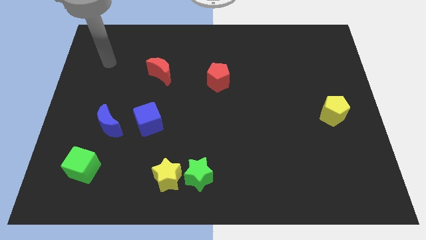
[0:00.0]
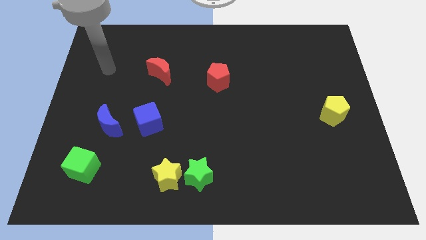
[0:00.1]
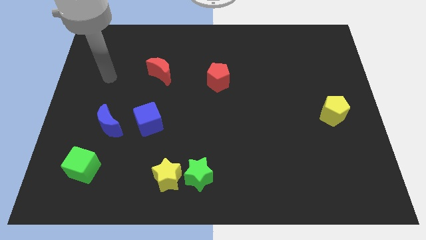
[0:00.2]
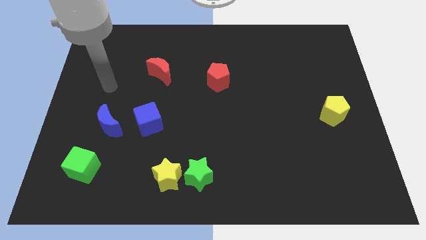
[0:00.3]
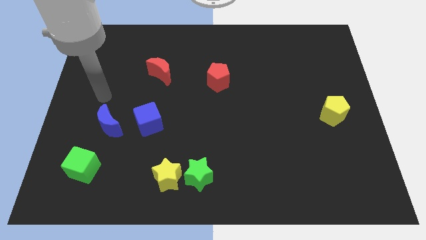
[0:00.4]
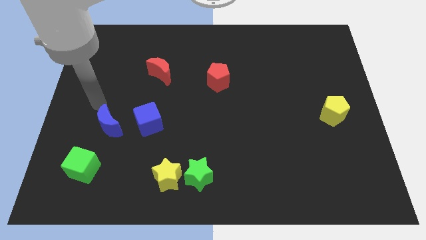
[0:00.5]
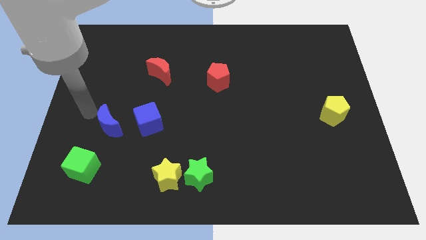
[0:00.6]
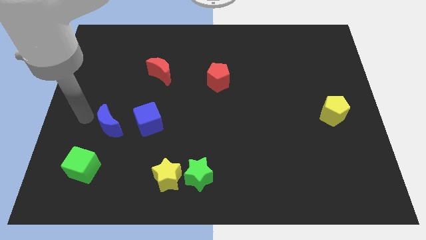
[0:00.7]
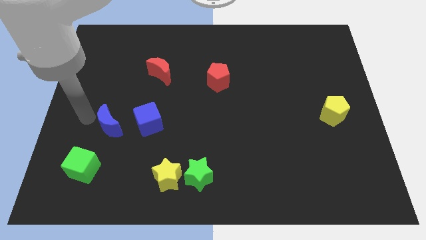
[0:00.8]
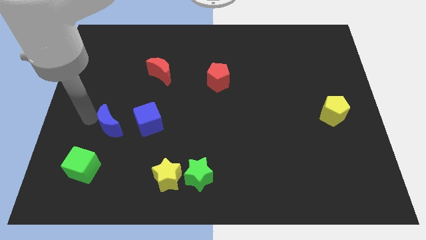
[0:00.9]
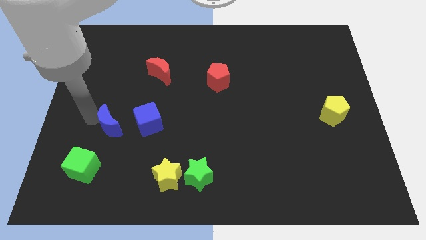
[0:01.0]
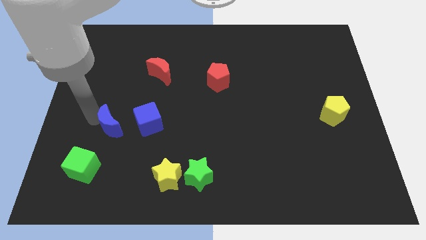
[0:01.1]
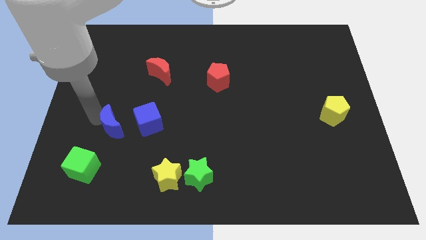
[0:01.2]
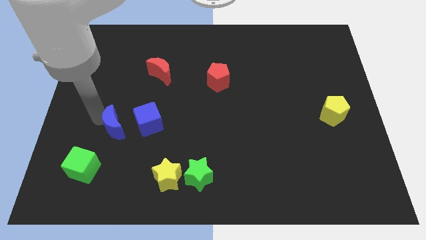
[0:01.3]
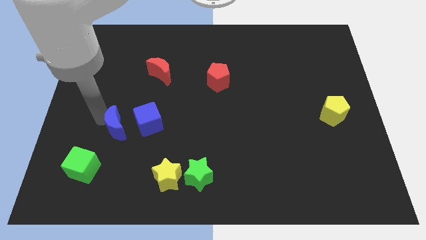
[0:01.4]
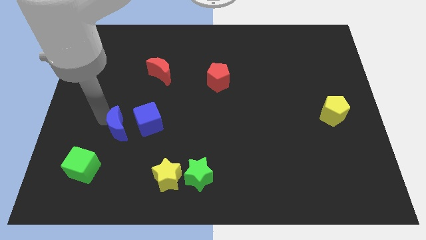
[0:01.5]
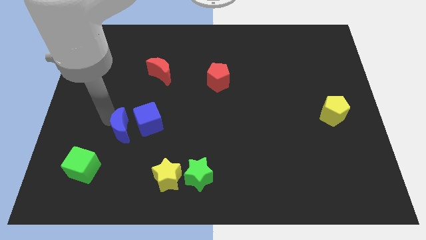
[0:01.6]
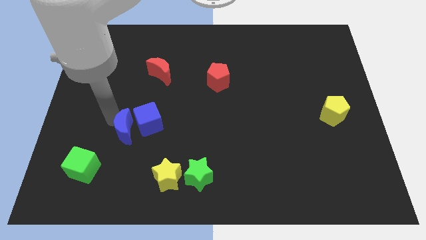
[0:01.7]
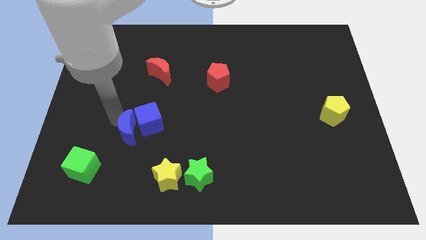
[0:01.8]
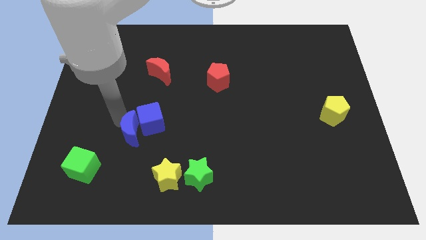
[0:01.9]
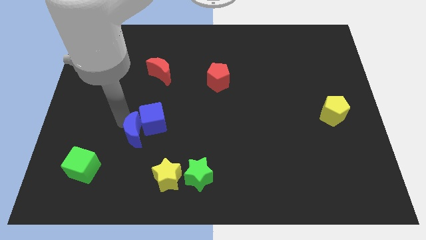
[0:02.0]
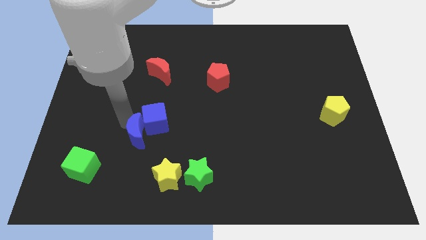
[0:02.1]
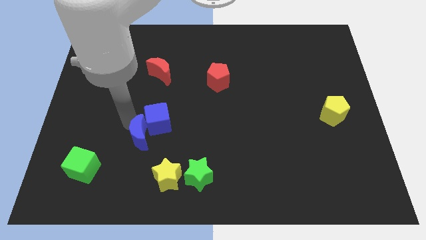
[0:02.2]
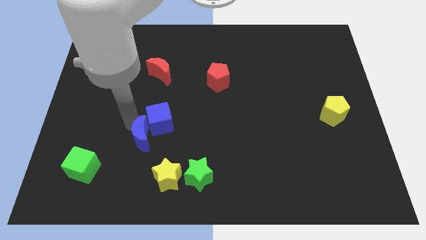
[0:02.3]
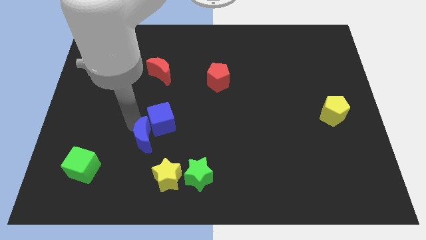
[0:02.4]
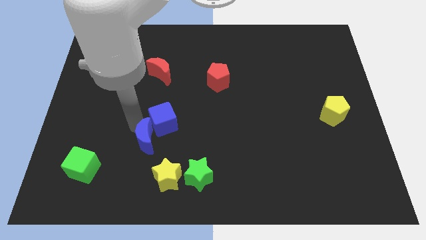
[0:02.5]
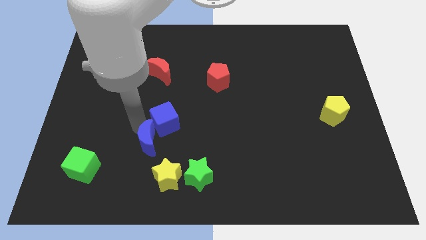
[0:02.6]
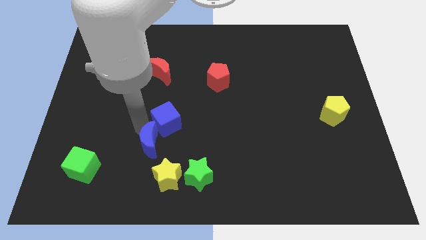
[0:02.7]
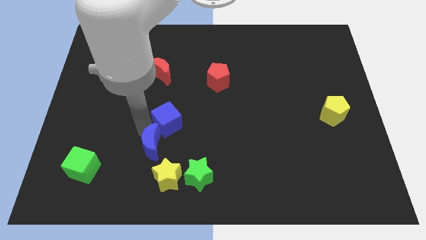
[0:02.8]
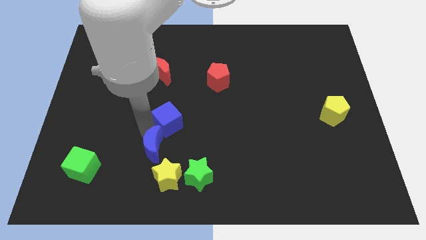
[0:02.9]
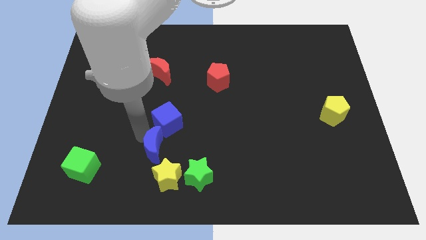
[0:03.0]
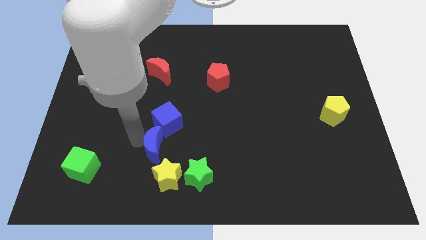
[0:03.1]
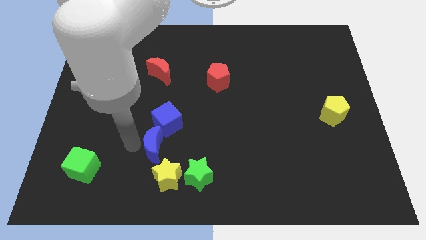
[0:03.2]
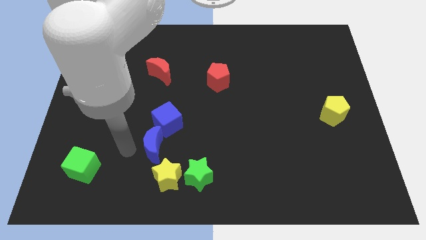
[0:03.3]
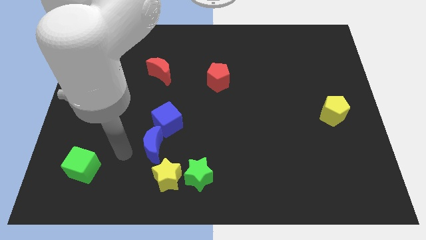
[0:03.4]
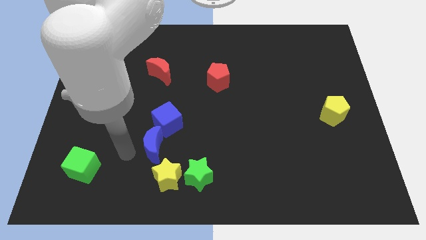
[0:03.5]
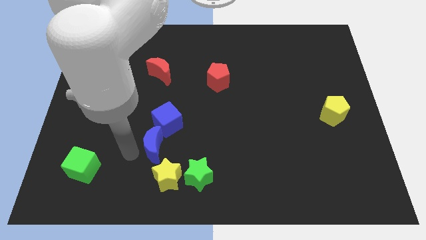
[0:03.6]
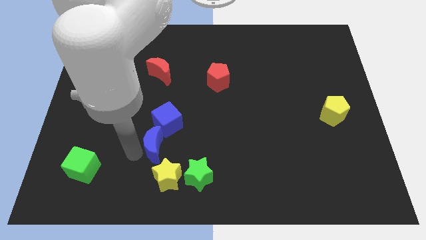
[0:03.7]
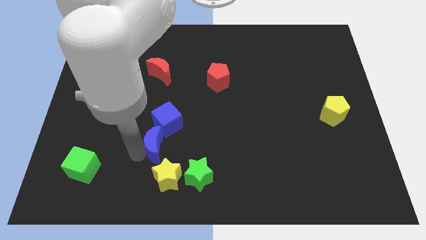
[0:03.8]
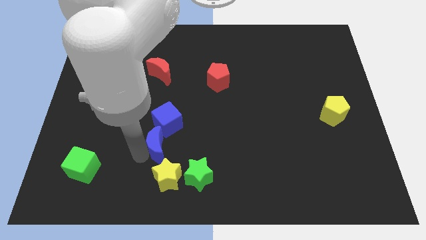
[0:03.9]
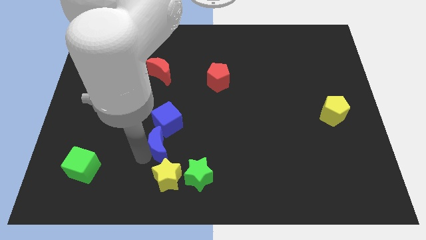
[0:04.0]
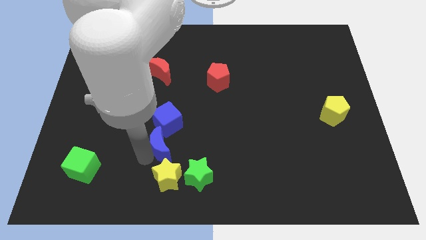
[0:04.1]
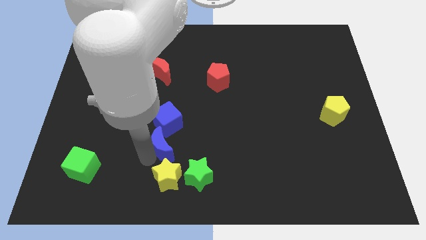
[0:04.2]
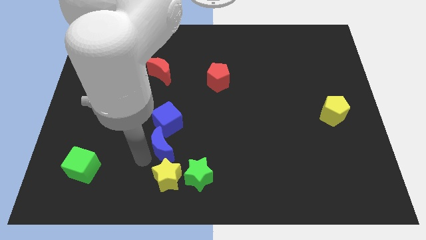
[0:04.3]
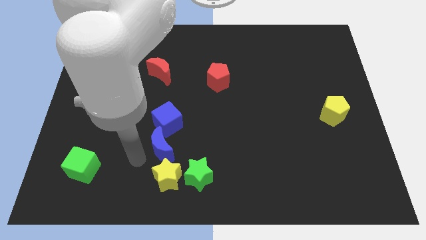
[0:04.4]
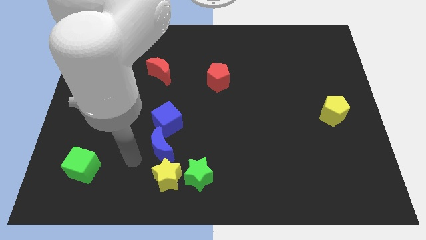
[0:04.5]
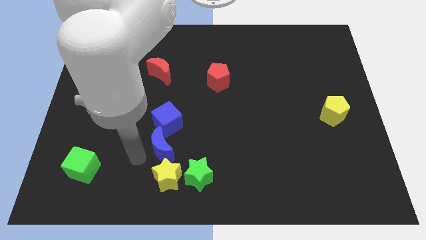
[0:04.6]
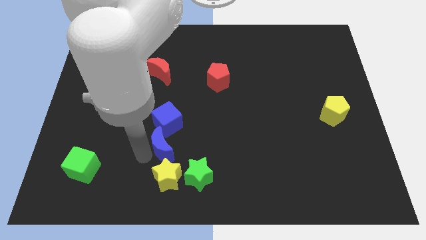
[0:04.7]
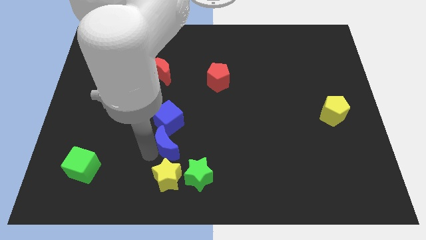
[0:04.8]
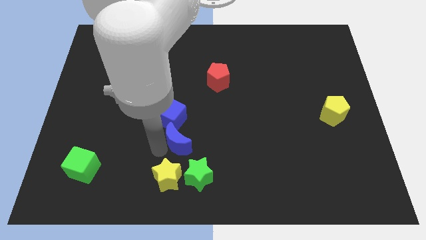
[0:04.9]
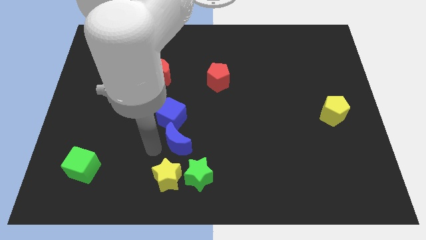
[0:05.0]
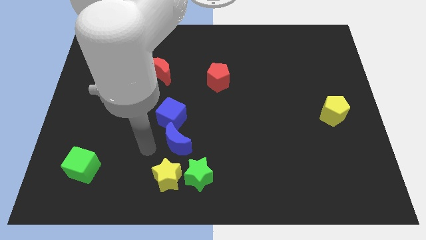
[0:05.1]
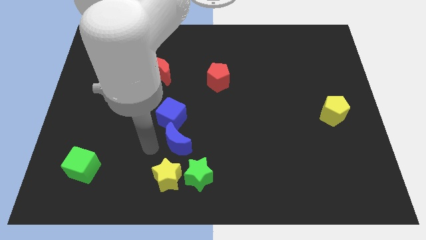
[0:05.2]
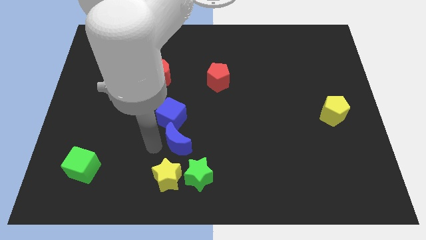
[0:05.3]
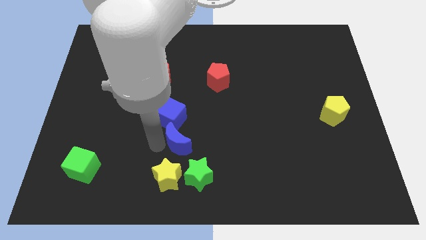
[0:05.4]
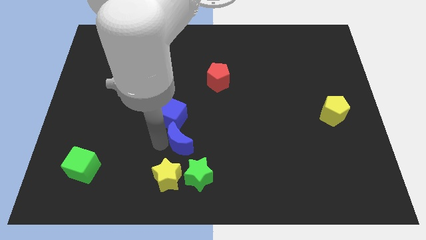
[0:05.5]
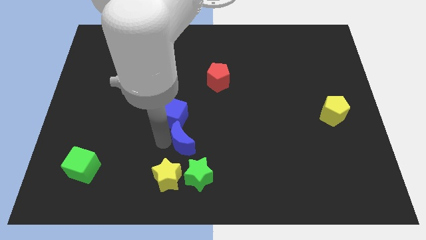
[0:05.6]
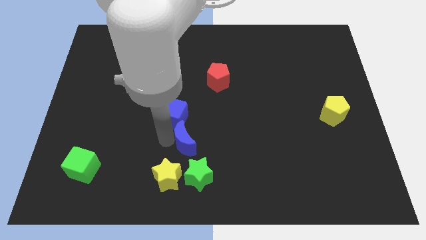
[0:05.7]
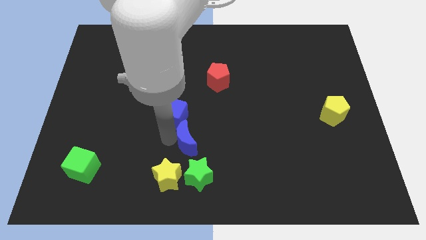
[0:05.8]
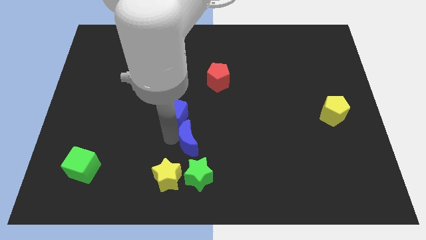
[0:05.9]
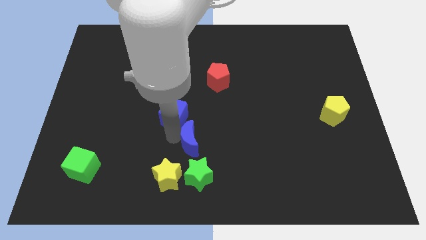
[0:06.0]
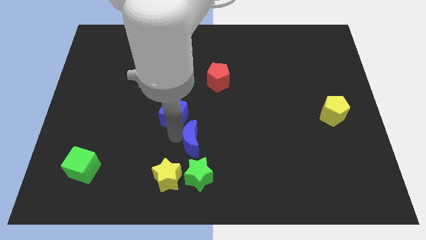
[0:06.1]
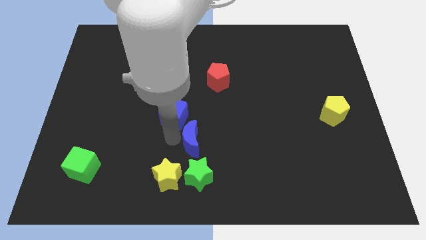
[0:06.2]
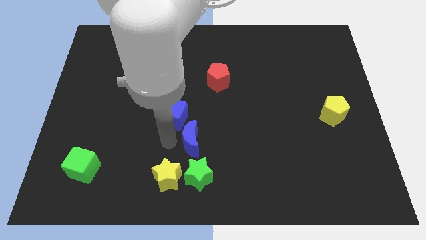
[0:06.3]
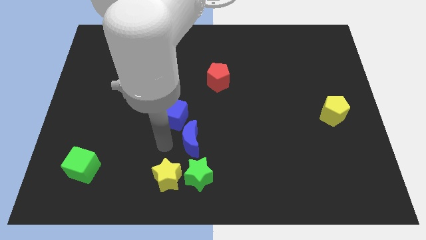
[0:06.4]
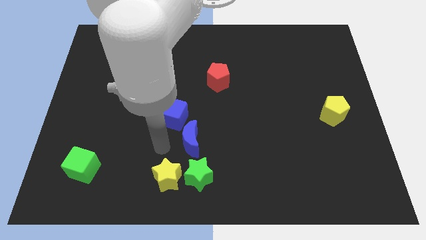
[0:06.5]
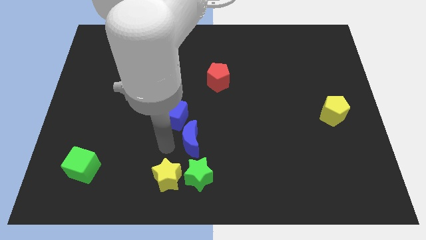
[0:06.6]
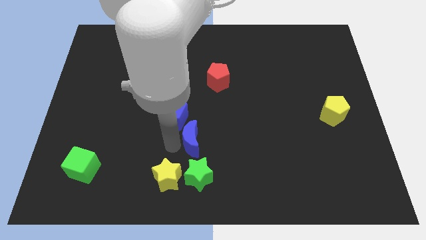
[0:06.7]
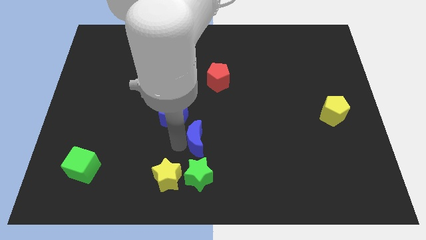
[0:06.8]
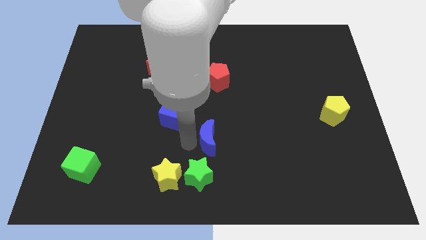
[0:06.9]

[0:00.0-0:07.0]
push the blue moon right

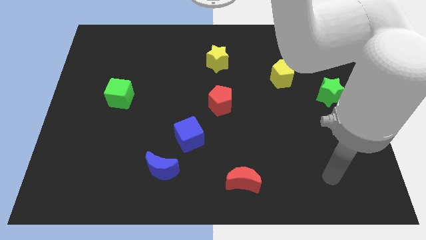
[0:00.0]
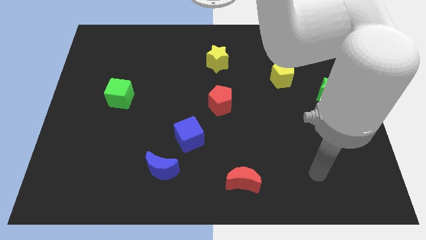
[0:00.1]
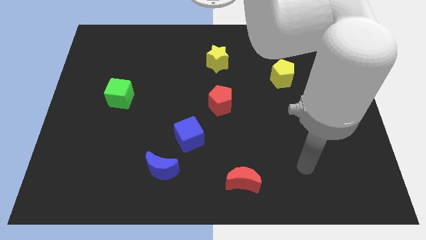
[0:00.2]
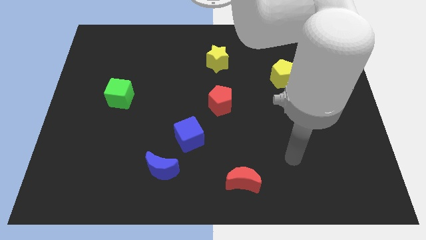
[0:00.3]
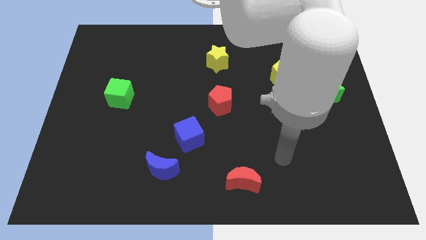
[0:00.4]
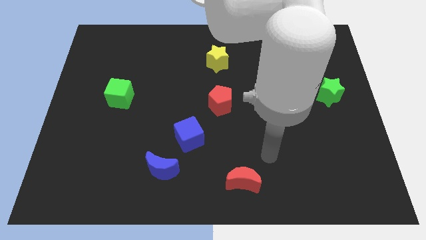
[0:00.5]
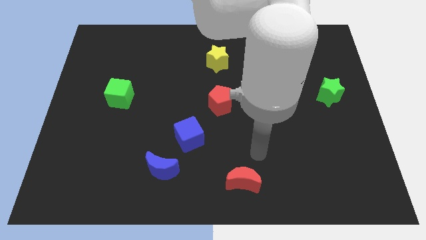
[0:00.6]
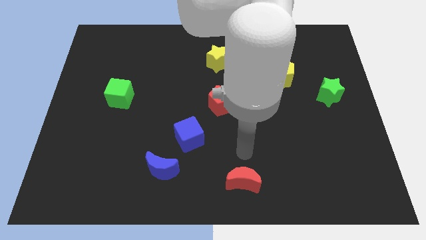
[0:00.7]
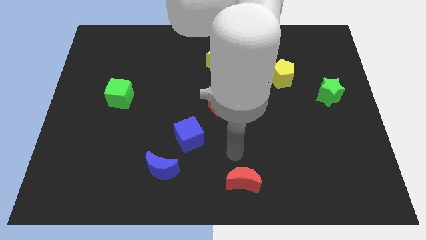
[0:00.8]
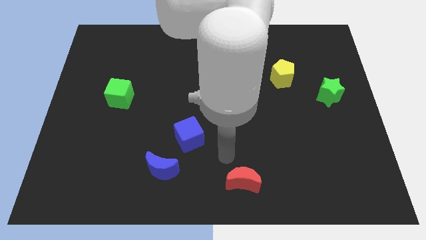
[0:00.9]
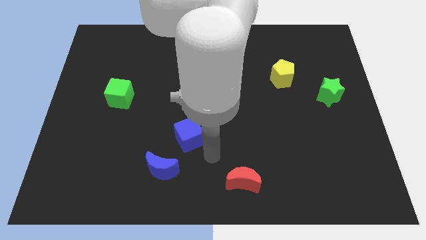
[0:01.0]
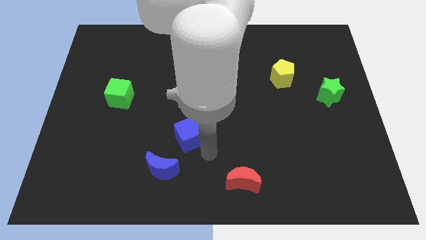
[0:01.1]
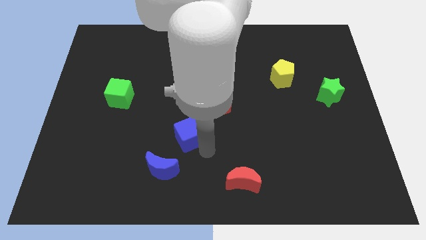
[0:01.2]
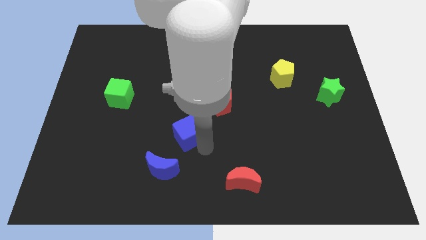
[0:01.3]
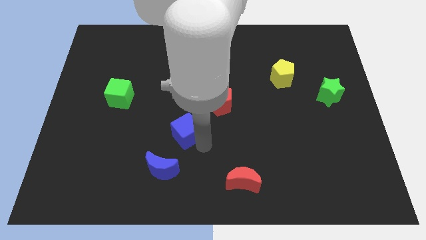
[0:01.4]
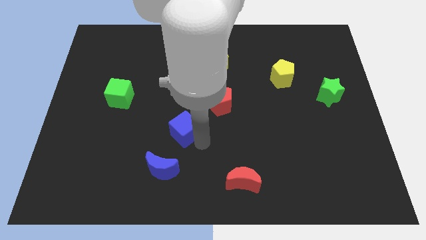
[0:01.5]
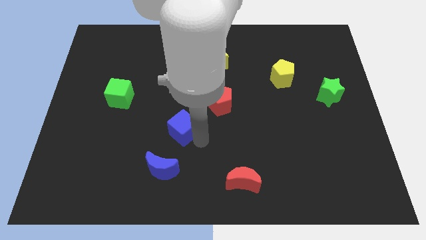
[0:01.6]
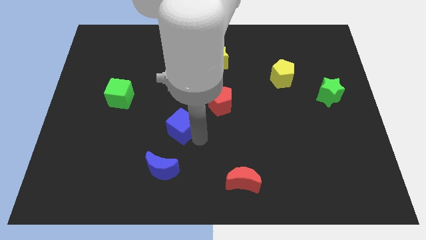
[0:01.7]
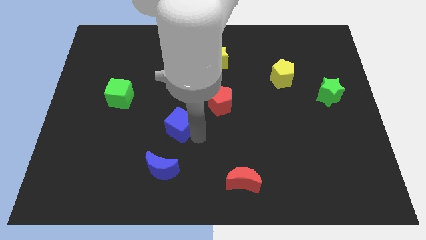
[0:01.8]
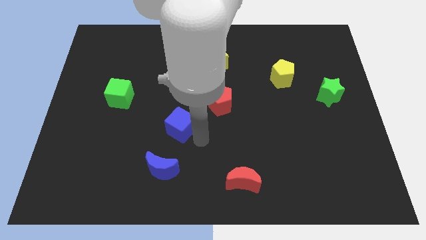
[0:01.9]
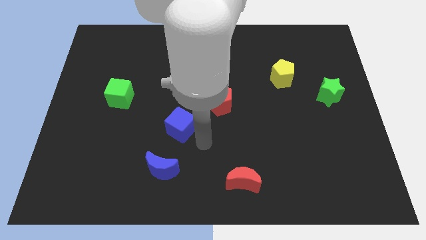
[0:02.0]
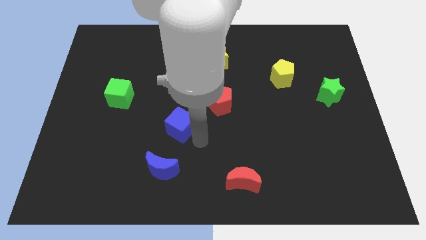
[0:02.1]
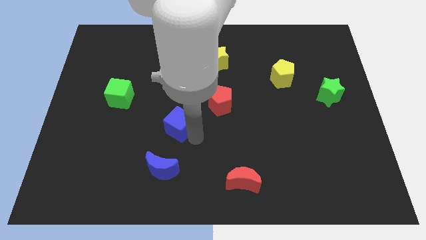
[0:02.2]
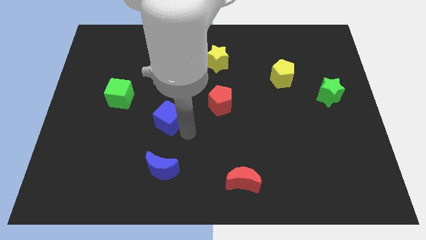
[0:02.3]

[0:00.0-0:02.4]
slide the blue cube a bit diagonally upwards and left
